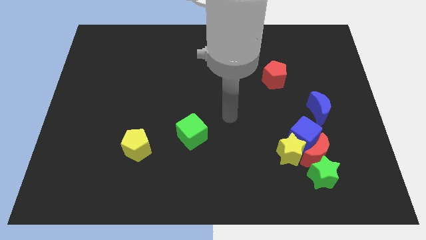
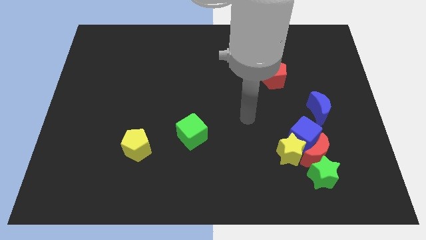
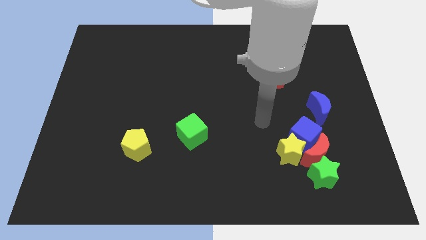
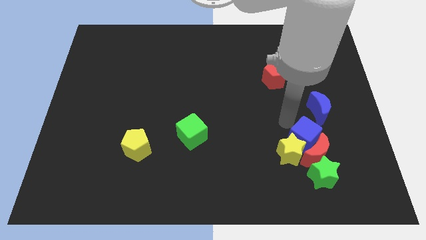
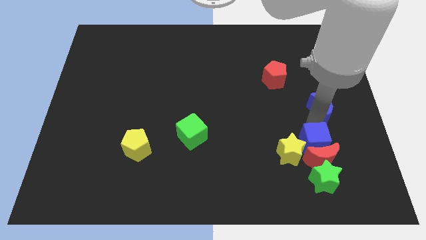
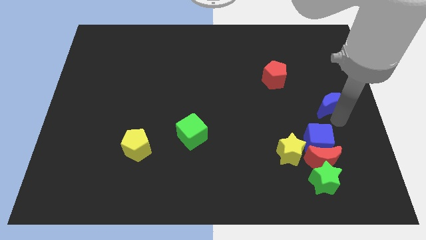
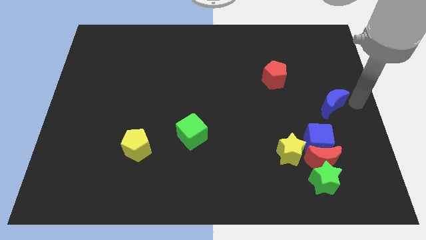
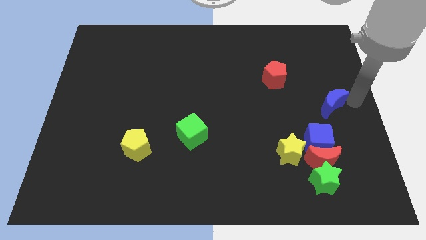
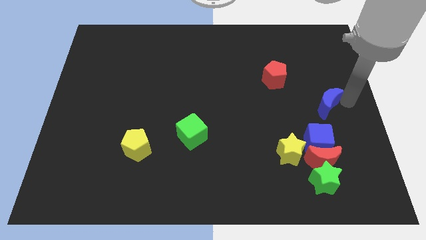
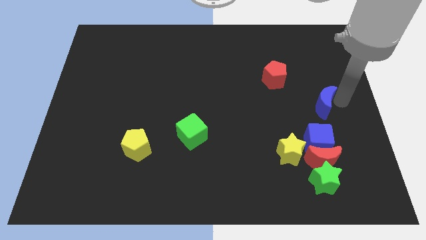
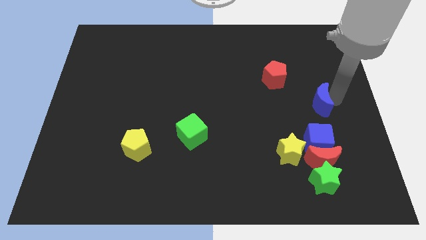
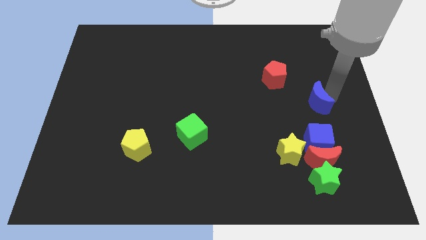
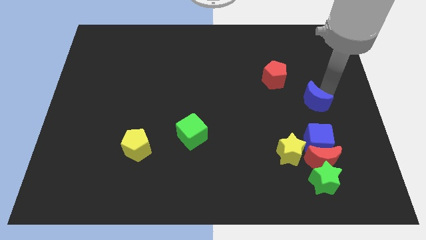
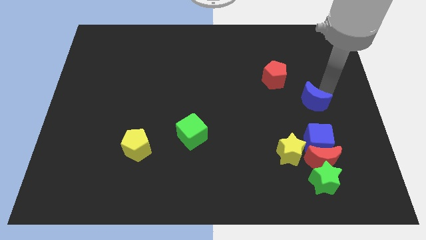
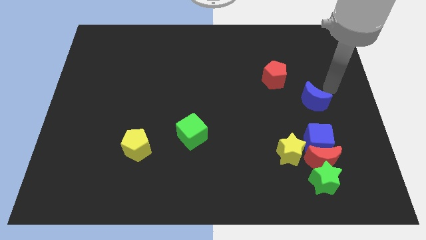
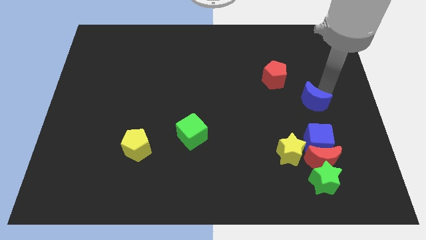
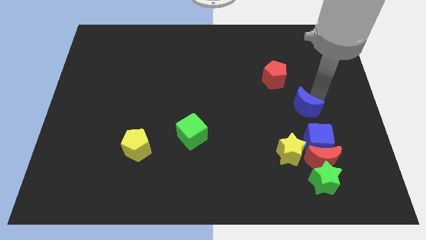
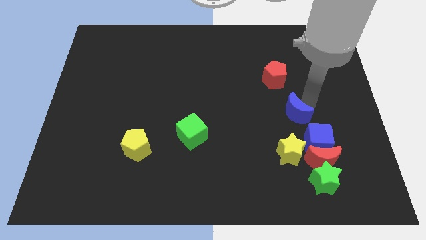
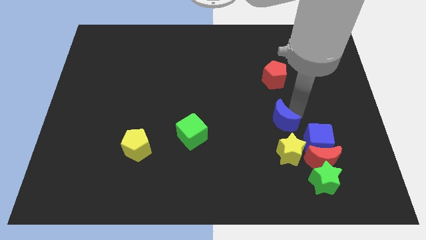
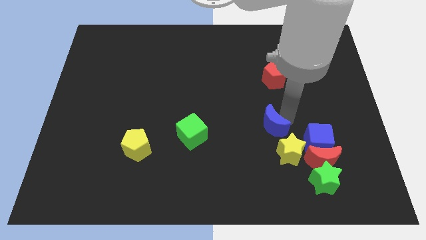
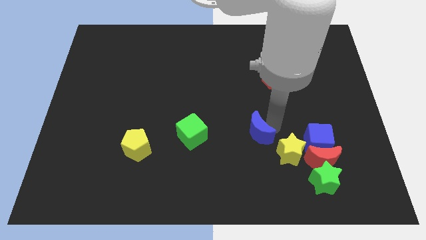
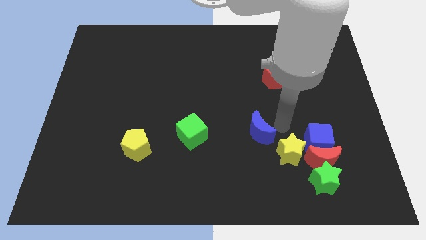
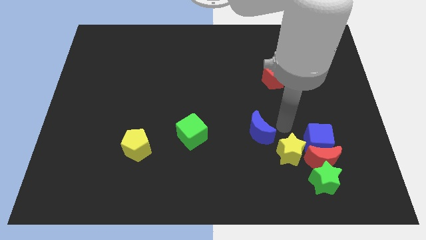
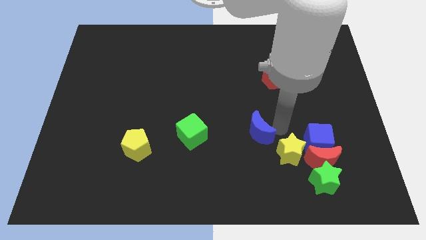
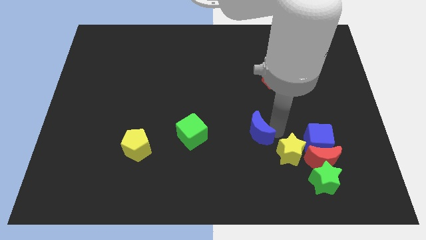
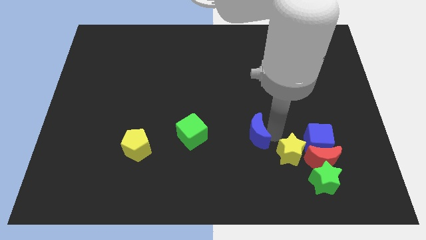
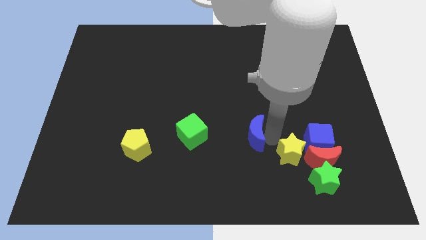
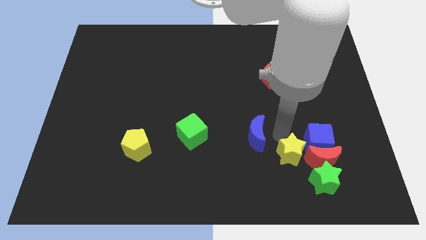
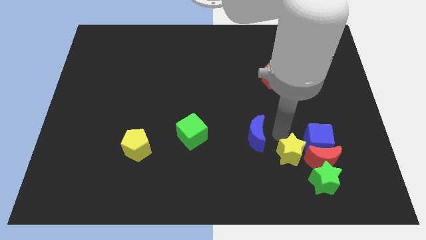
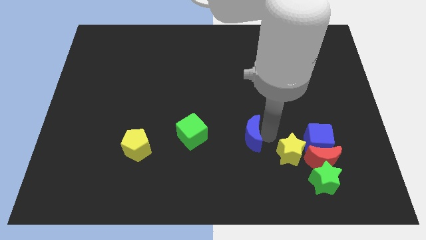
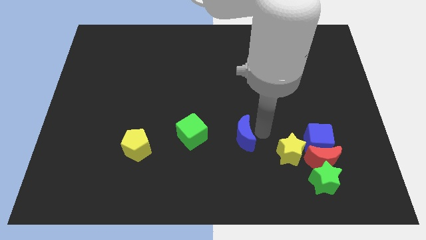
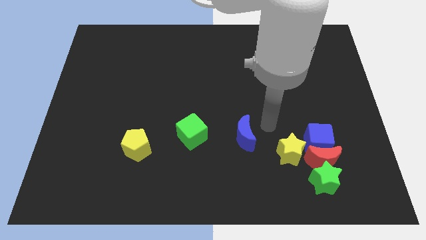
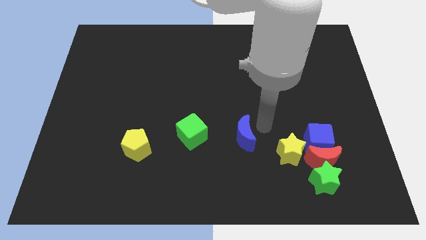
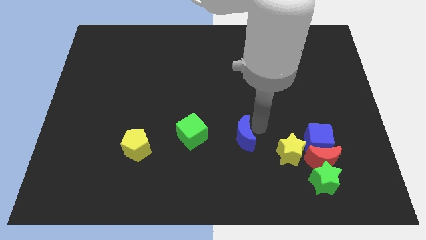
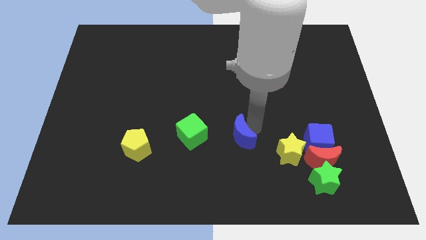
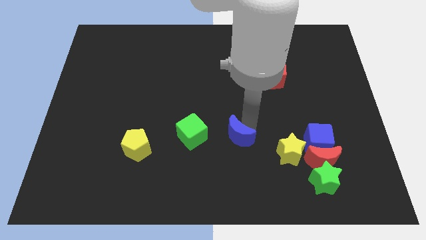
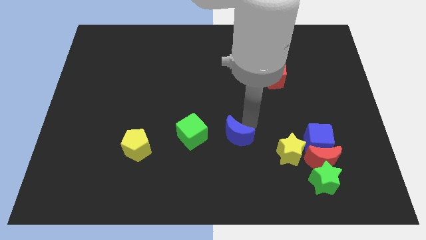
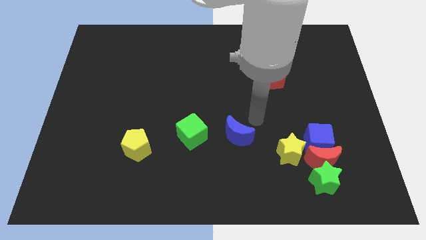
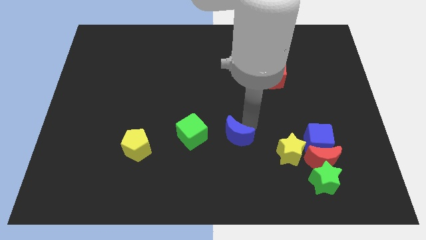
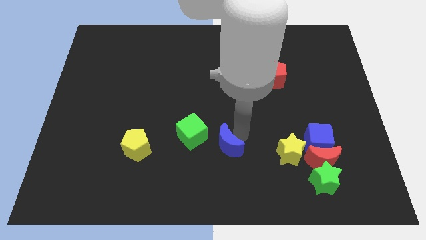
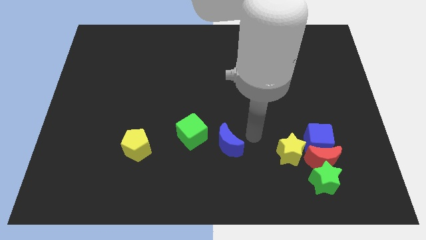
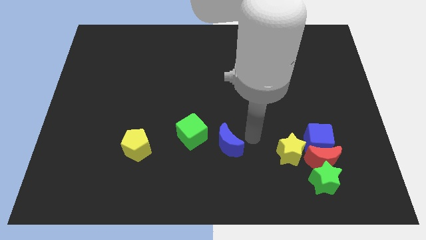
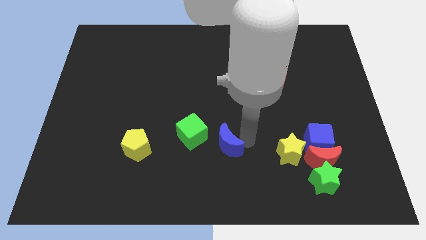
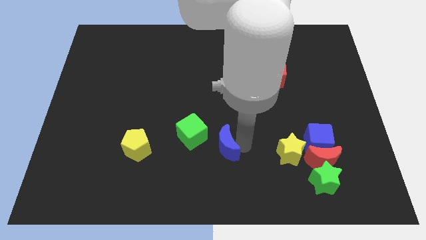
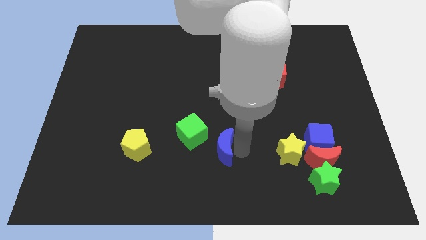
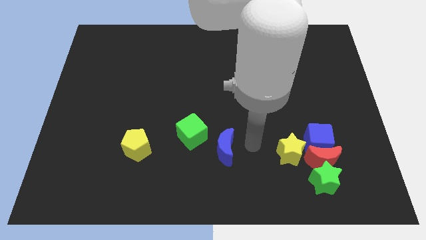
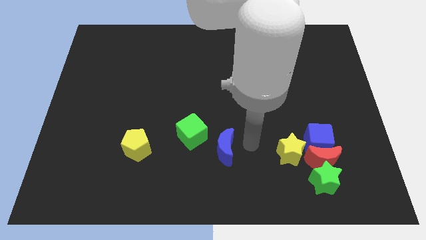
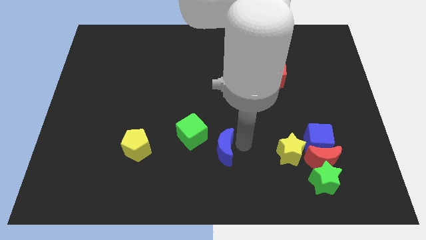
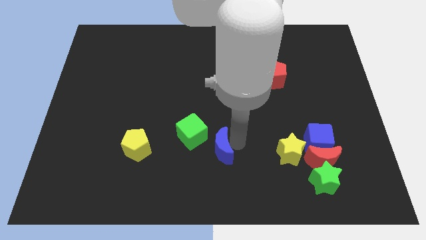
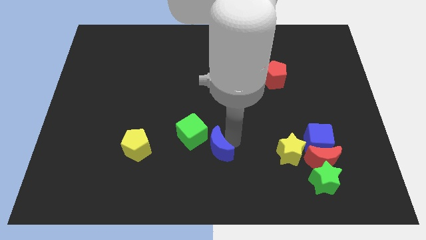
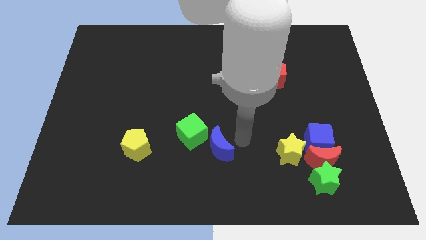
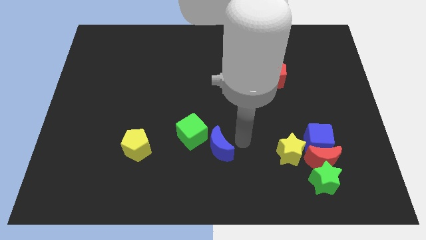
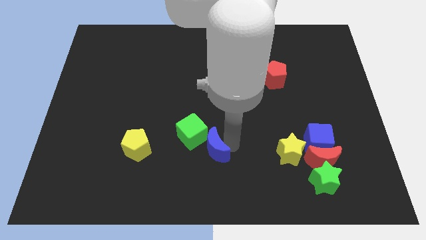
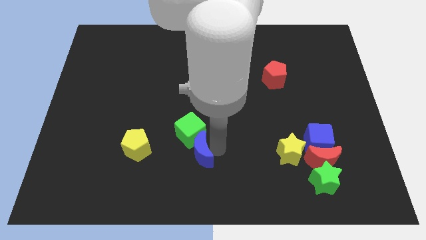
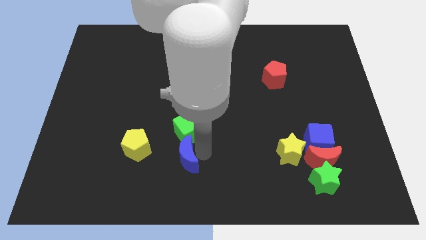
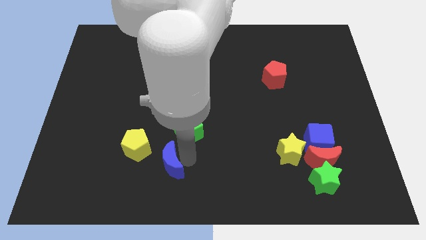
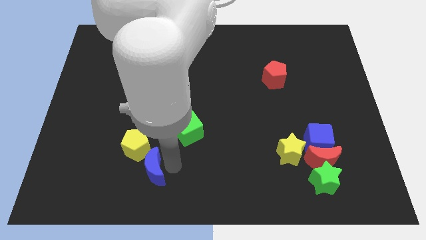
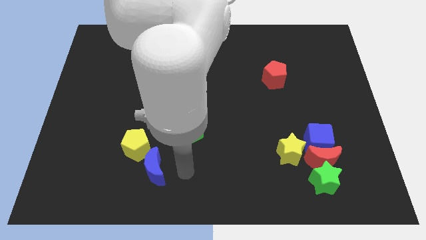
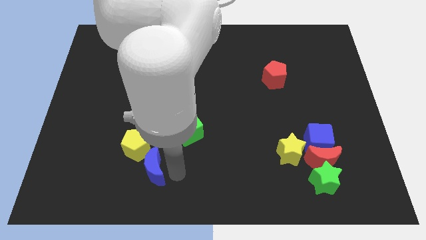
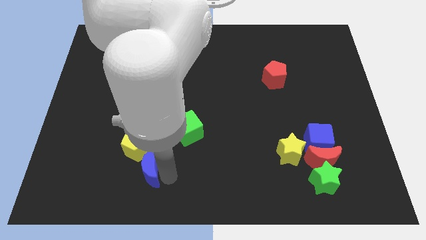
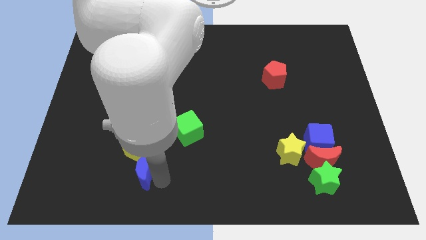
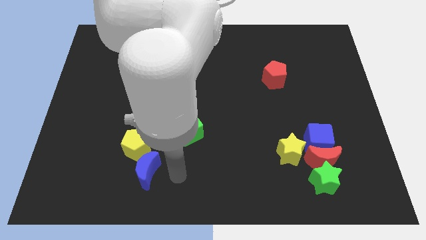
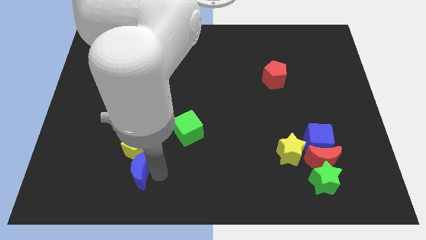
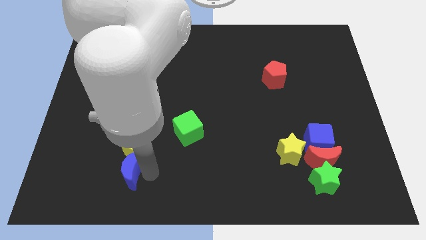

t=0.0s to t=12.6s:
put the blue moon diagonally down and to the left of the yellow pentagon

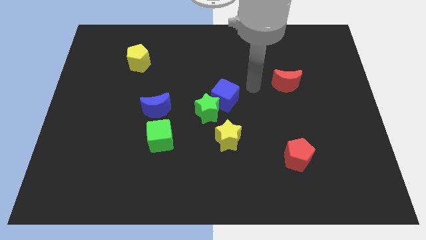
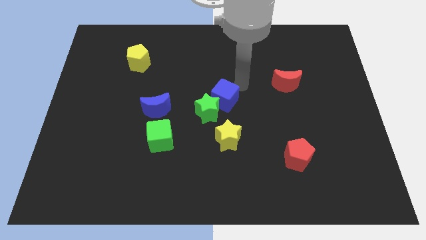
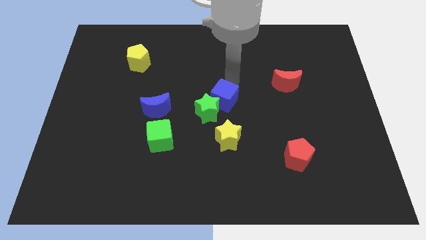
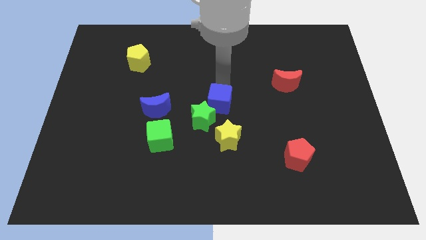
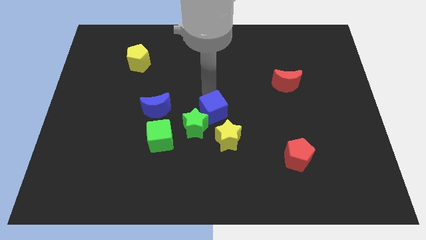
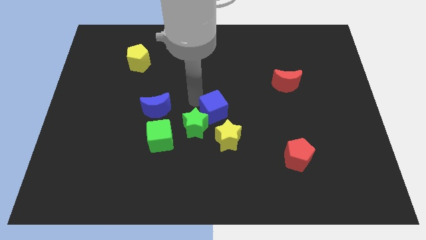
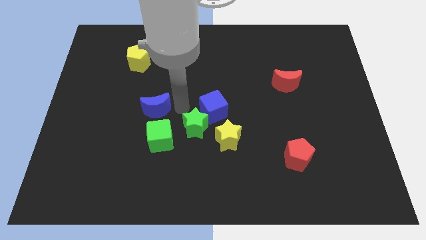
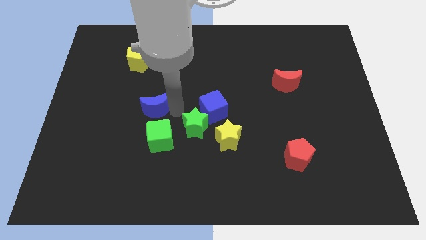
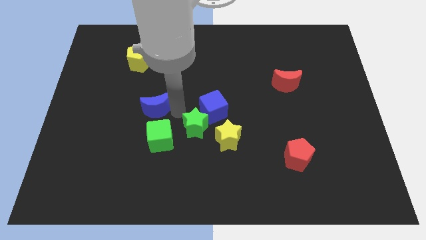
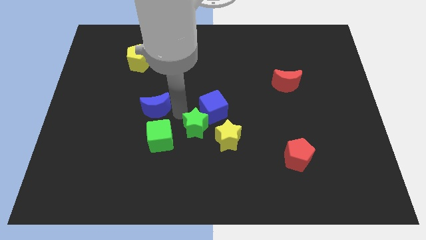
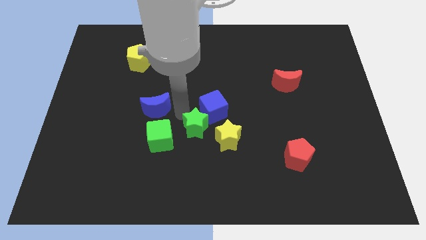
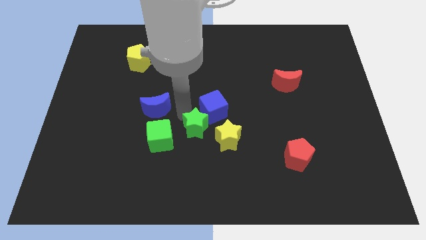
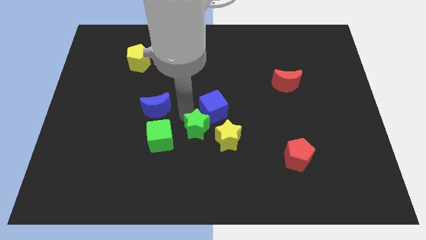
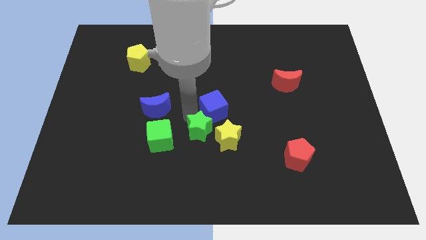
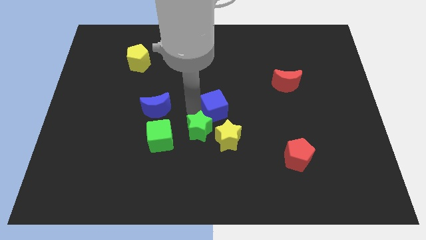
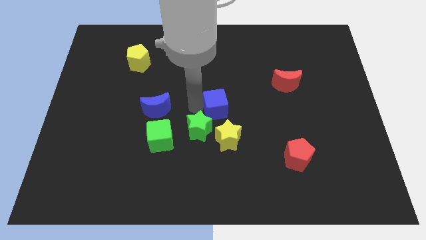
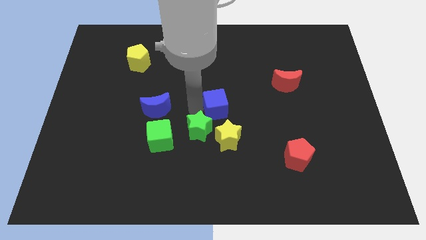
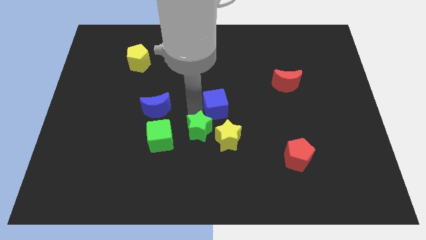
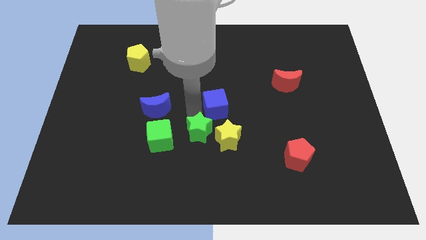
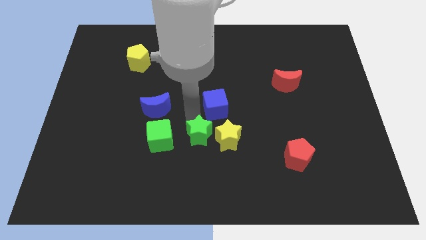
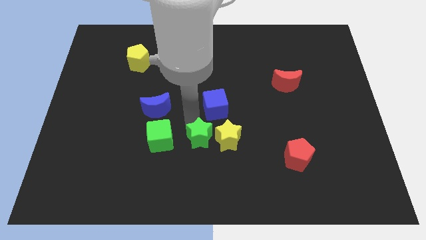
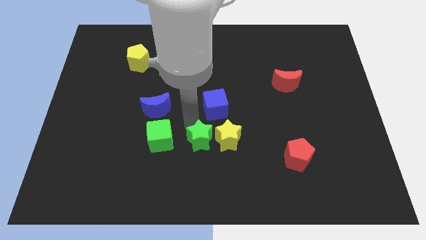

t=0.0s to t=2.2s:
slide the green star diagonally down and to the left of the yellow star
